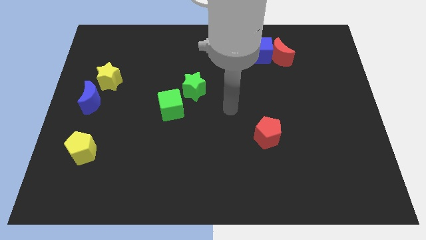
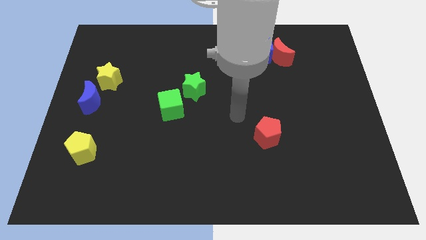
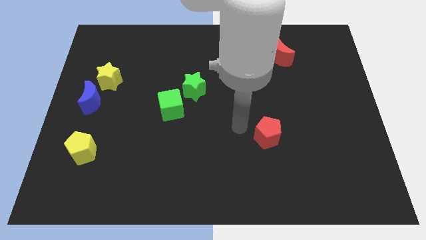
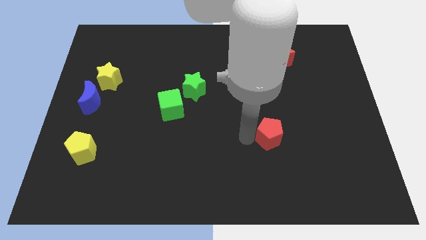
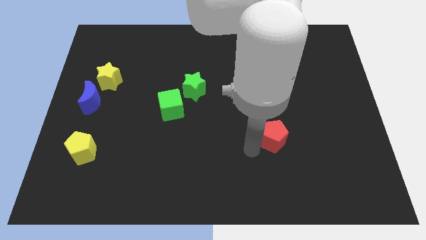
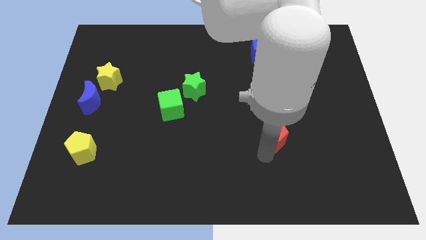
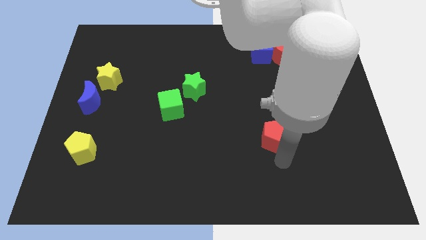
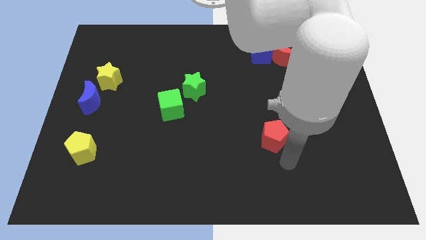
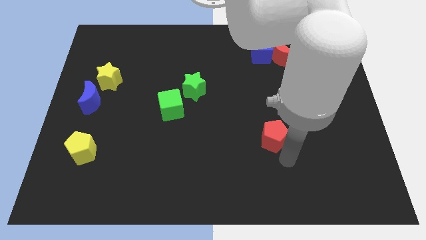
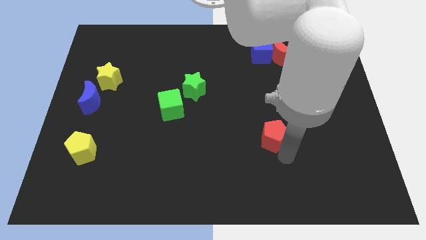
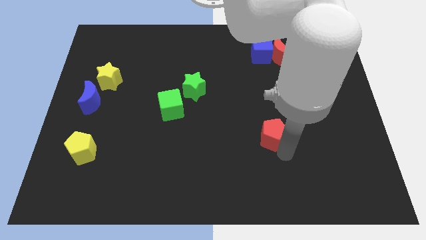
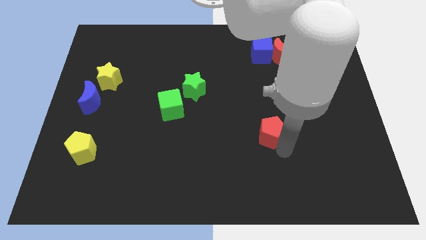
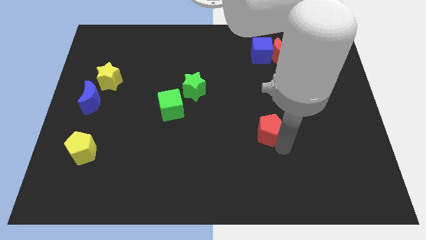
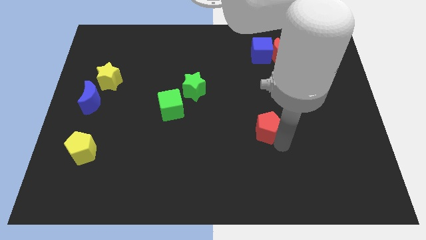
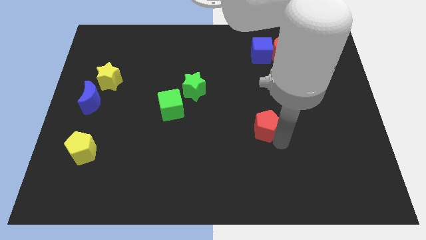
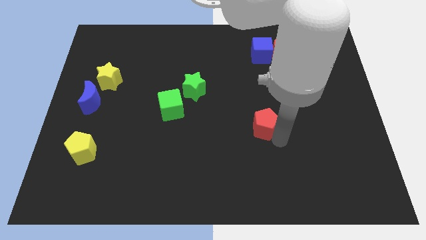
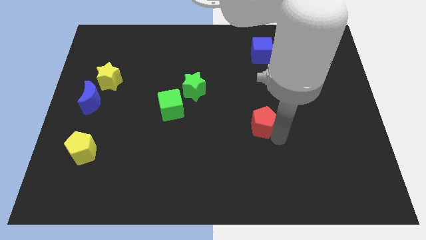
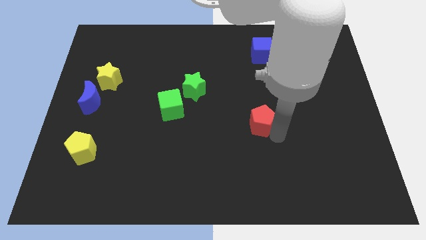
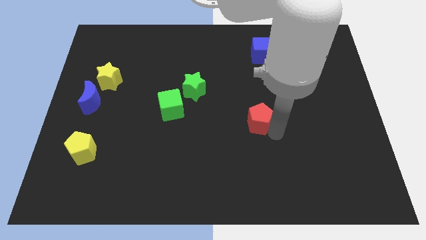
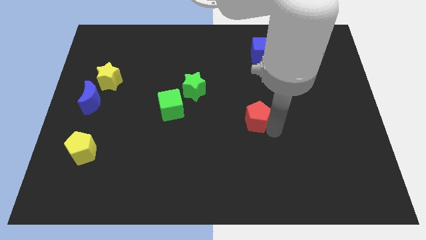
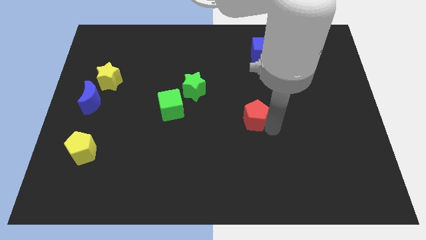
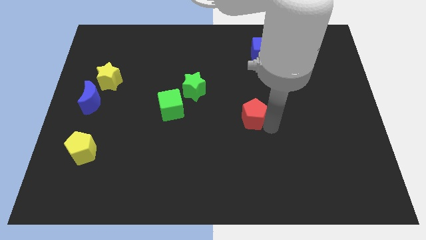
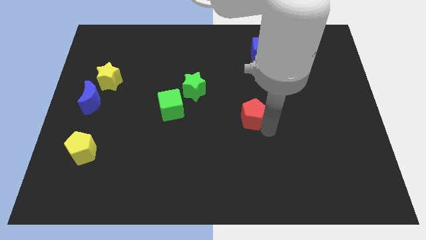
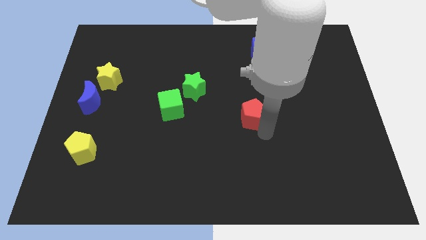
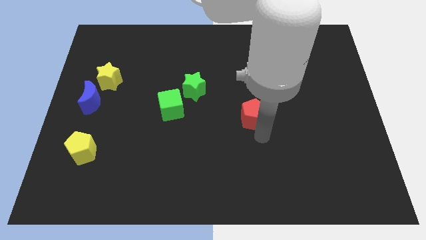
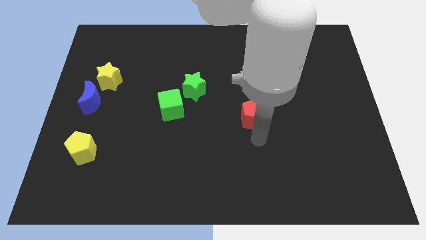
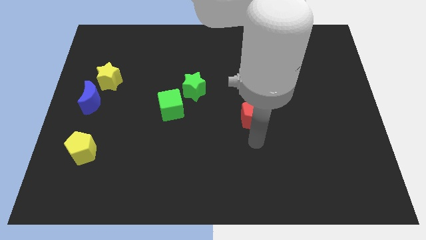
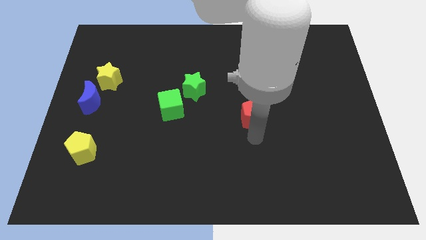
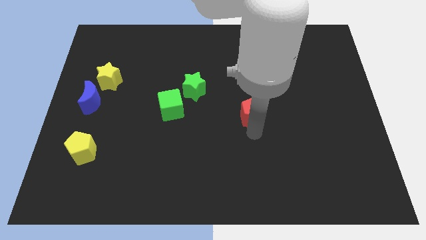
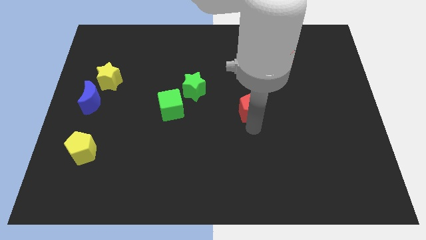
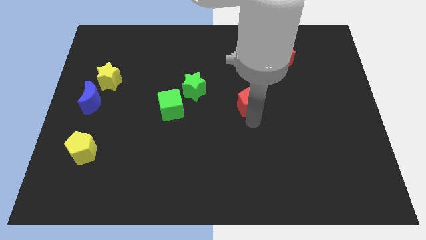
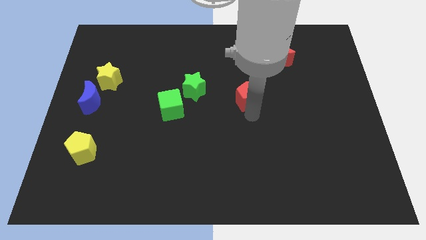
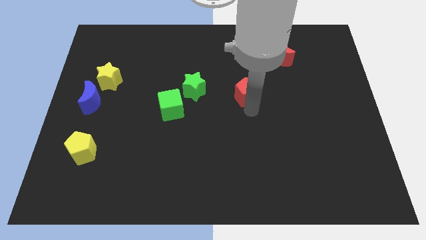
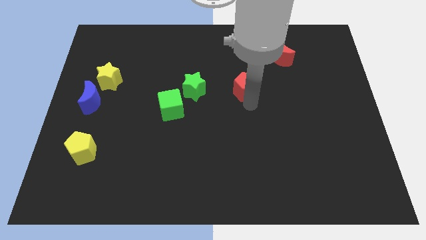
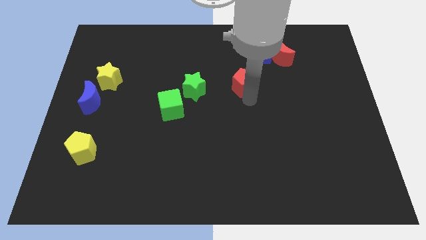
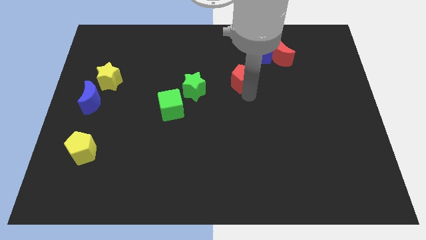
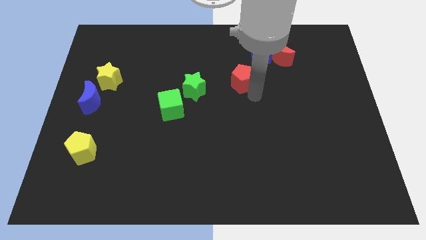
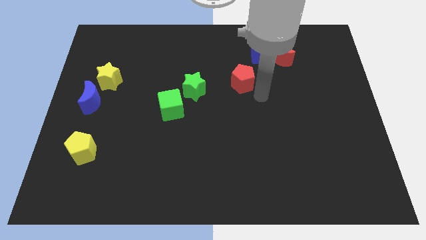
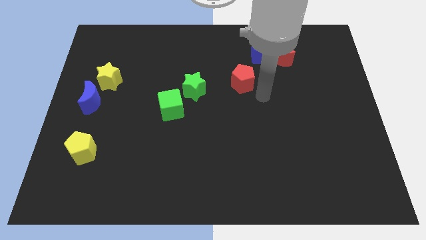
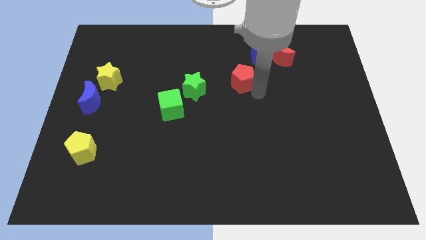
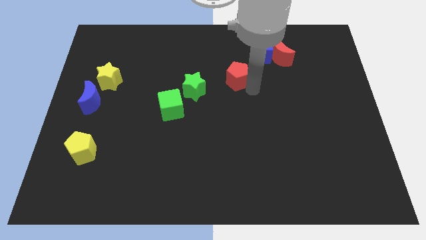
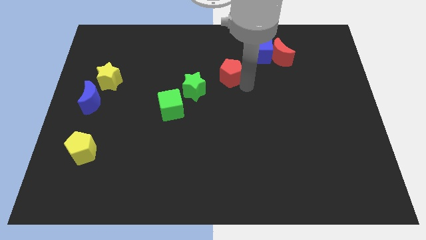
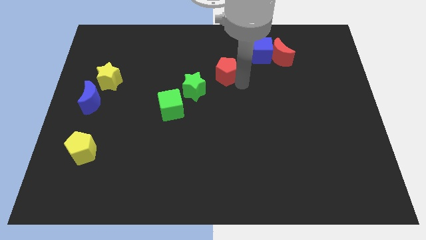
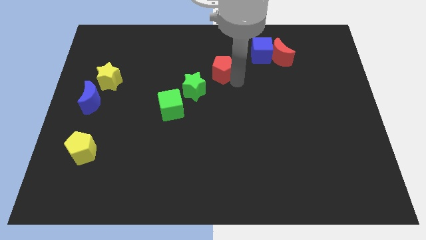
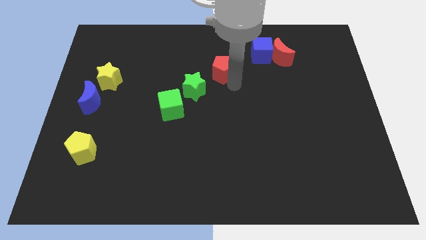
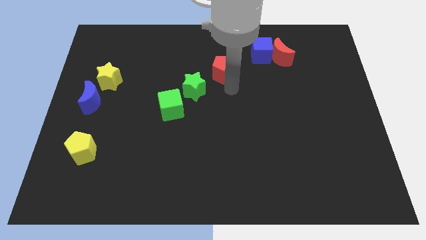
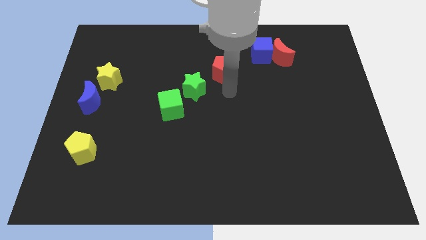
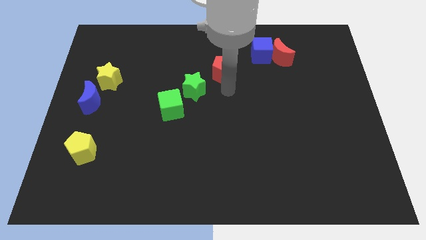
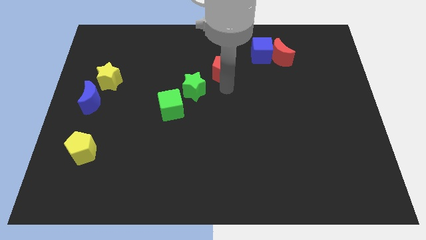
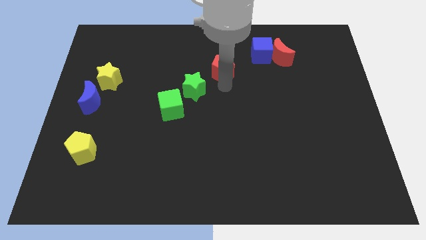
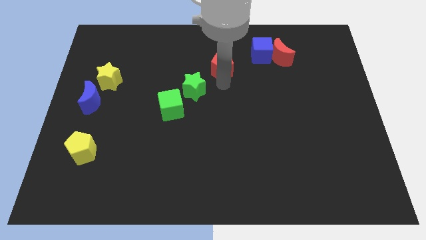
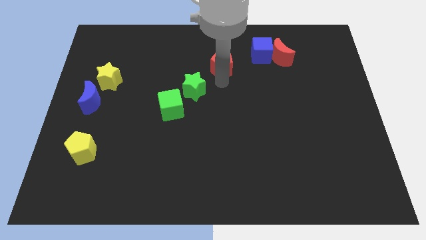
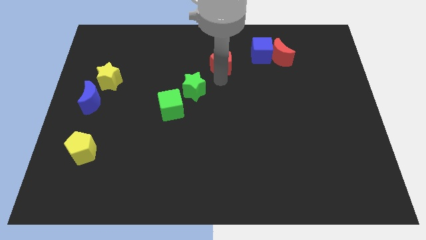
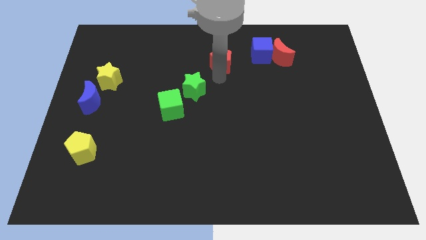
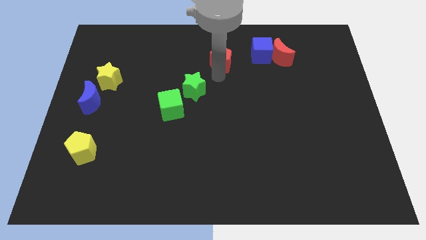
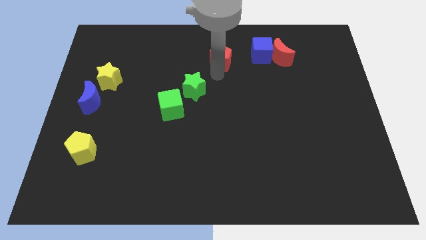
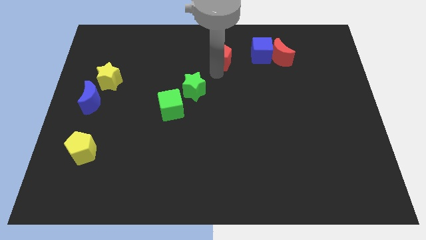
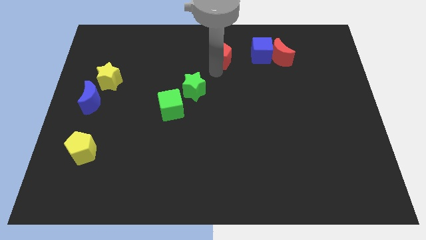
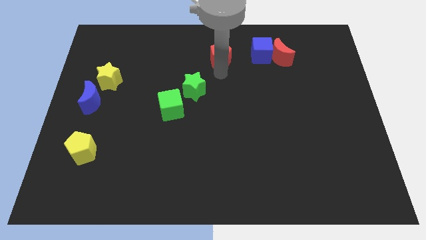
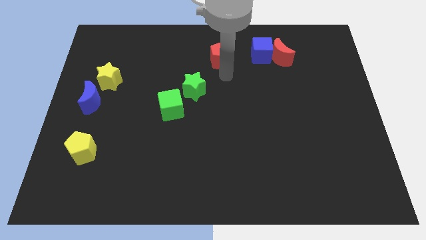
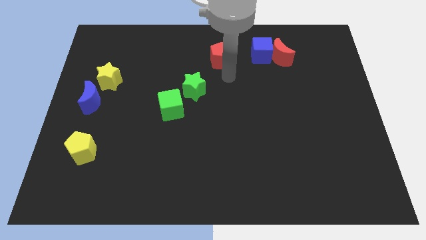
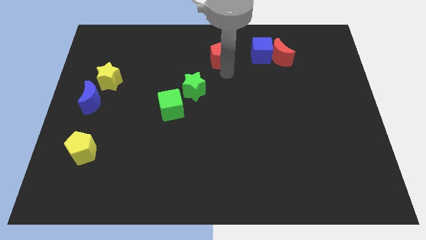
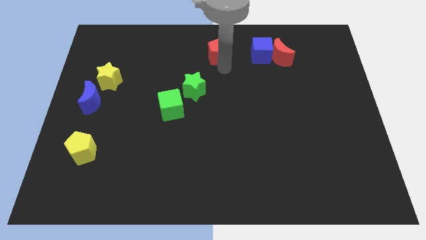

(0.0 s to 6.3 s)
move the red pentagon to the towards your base
